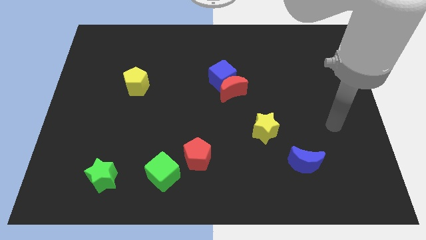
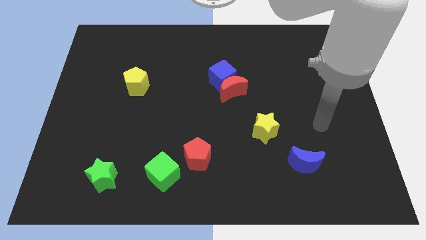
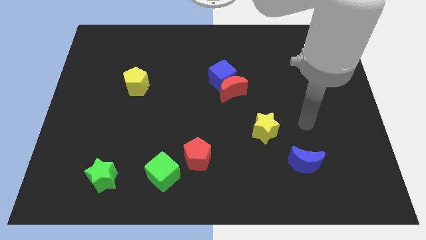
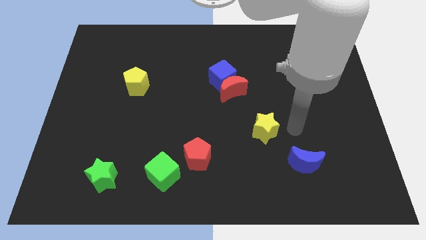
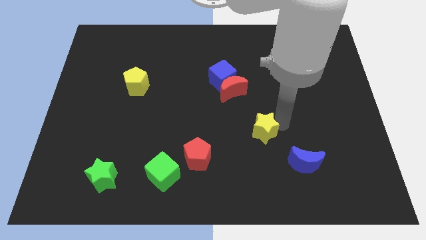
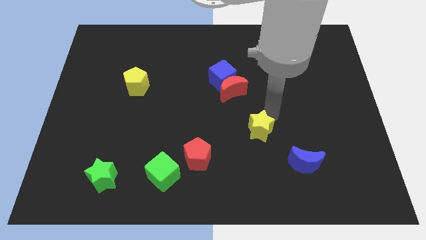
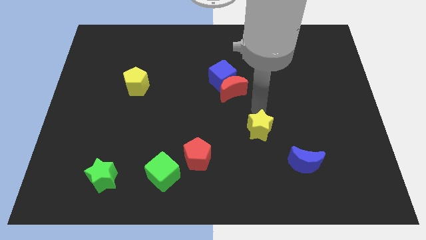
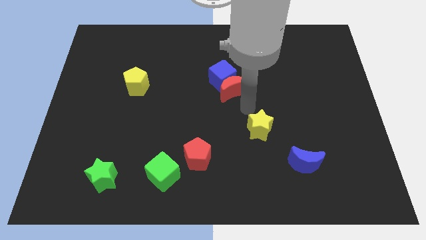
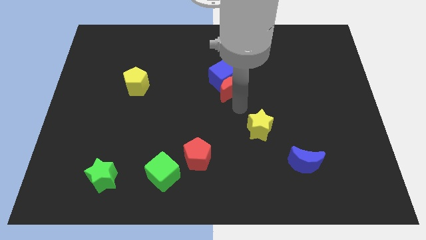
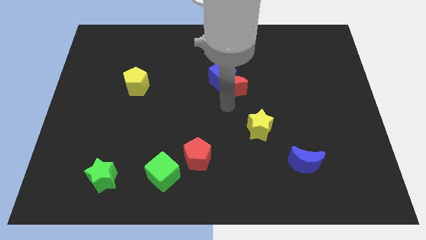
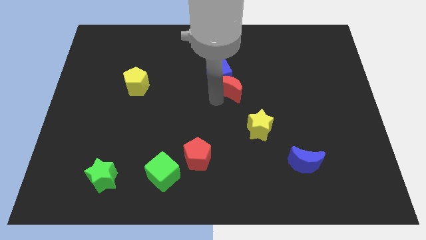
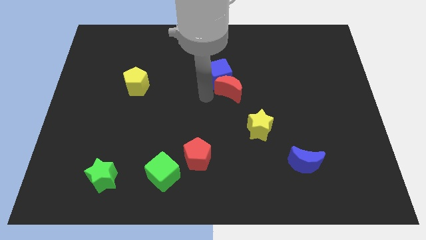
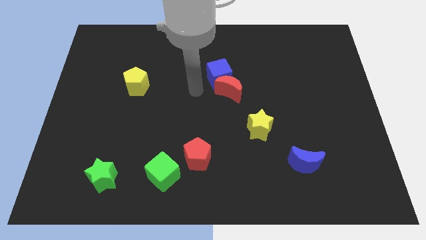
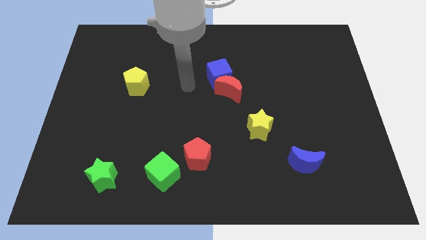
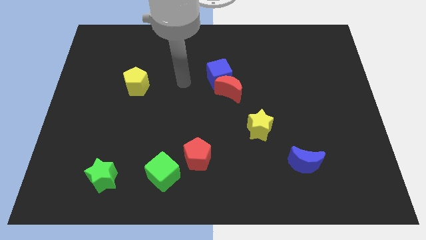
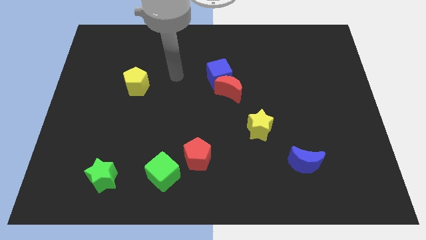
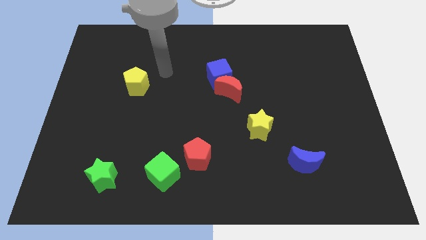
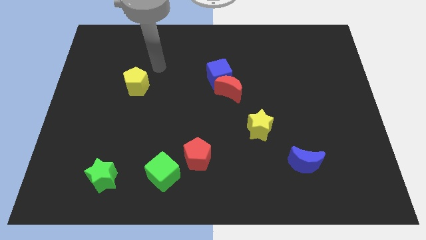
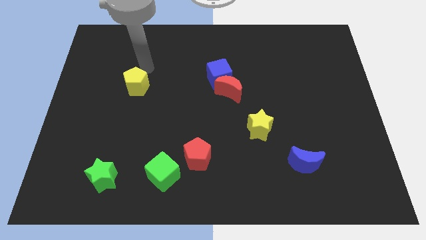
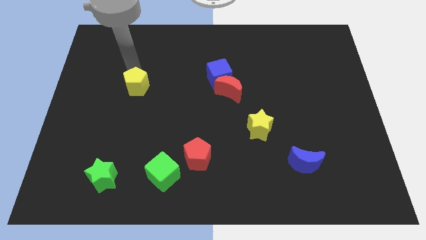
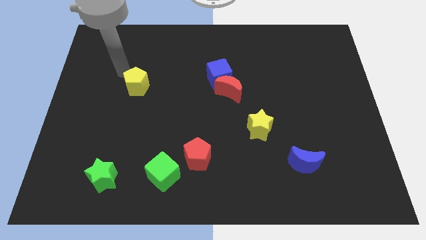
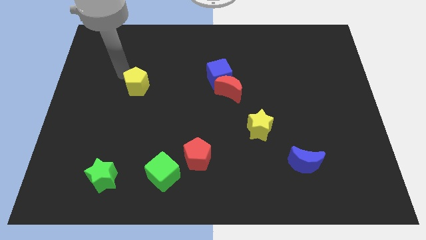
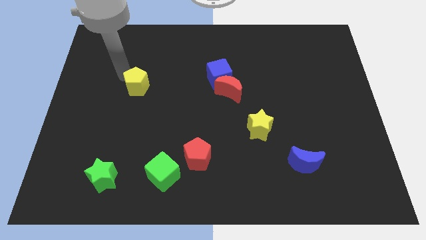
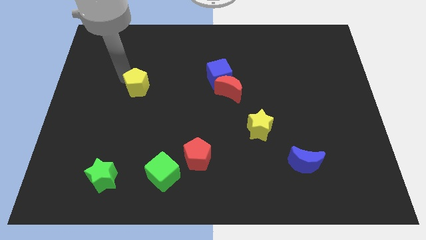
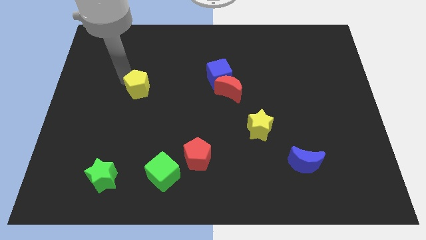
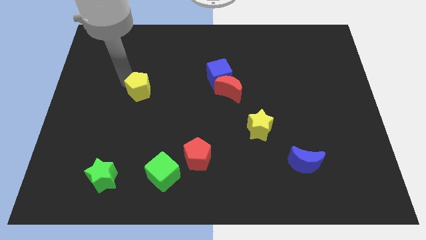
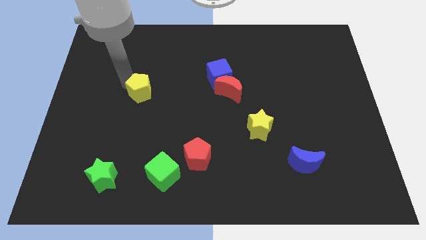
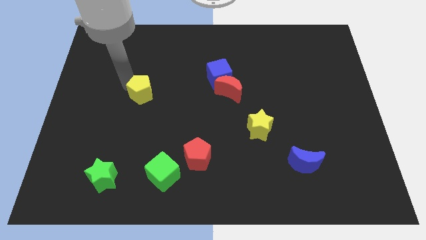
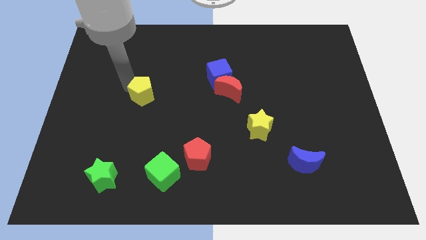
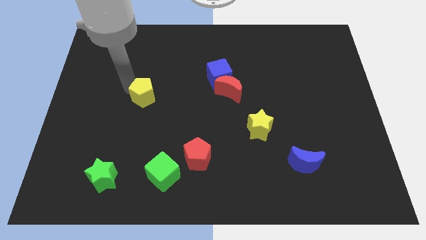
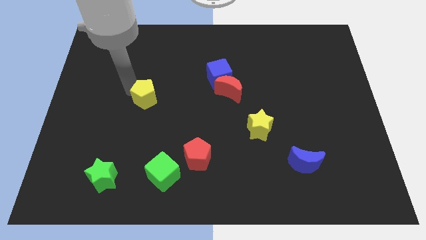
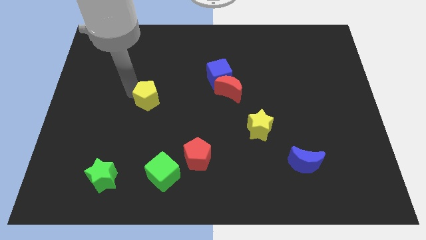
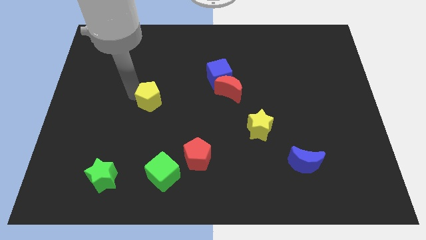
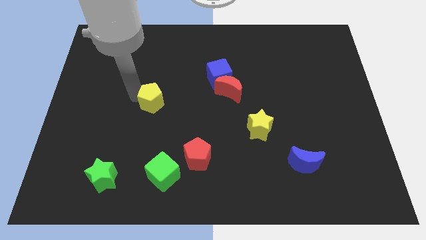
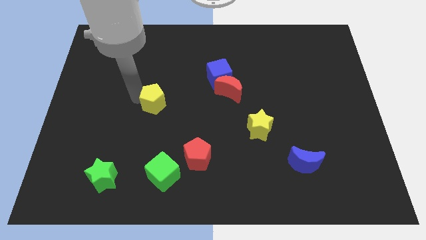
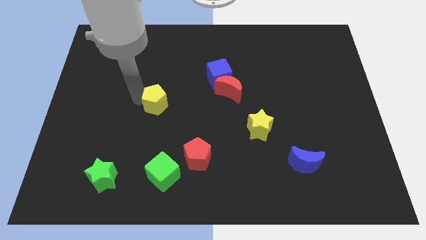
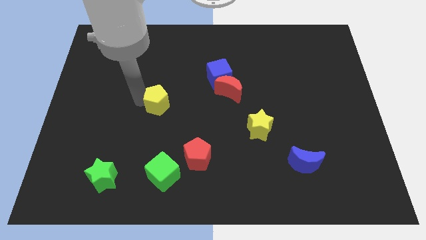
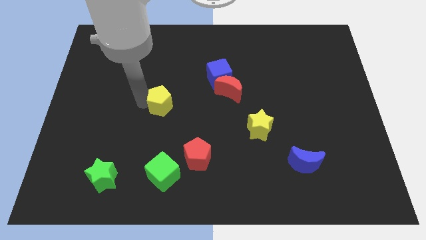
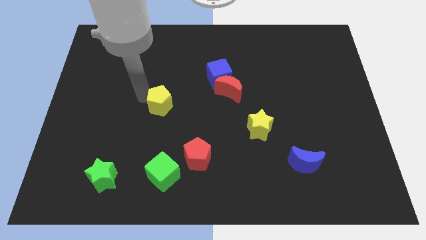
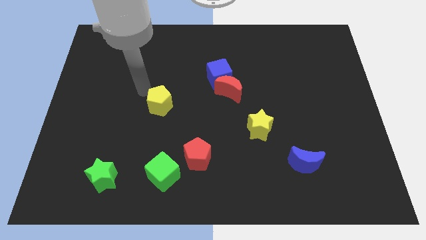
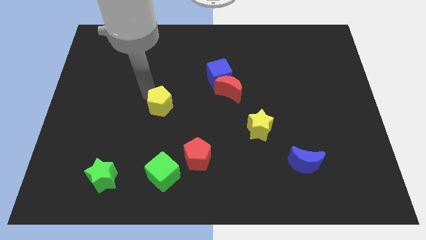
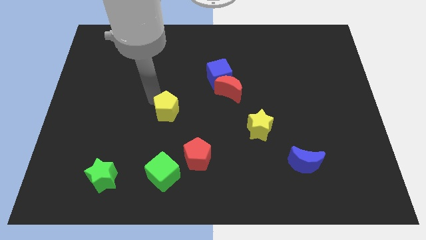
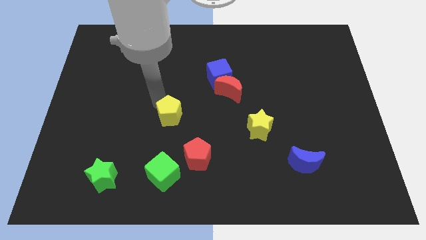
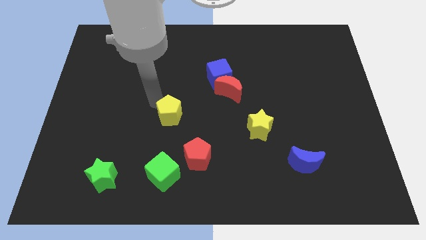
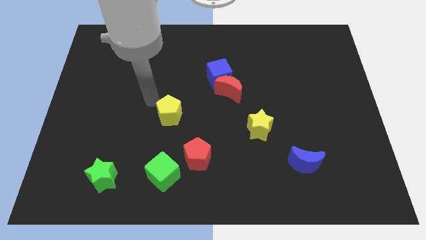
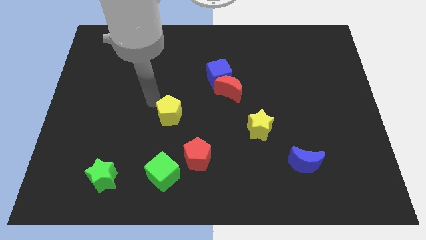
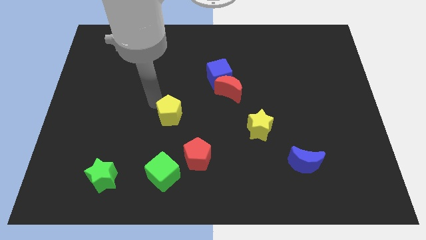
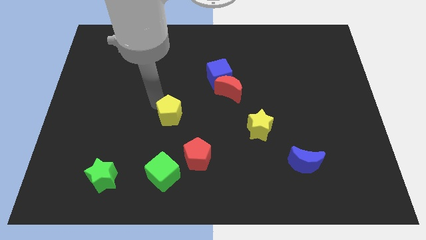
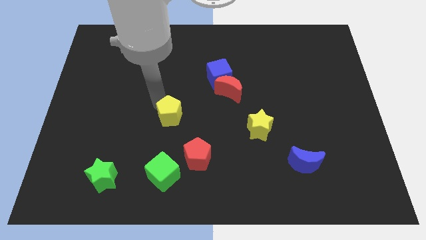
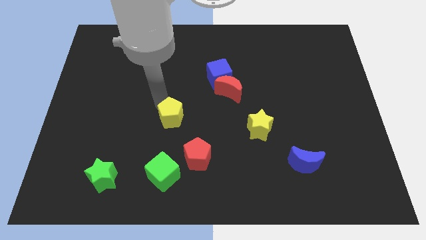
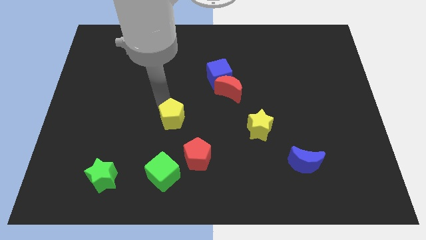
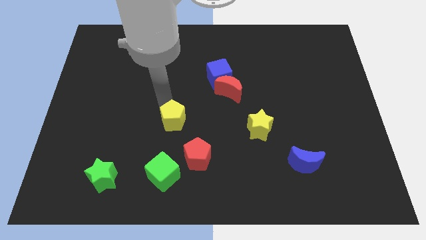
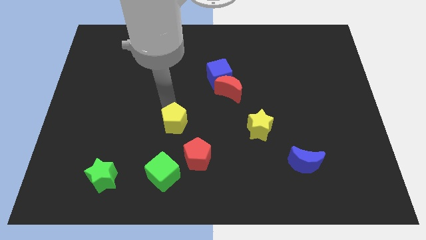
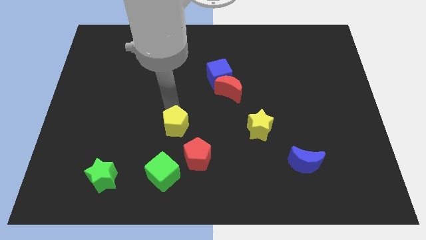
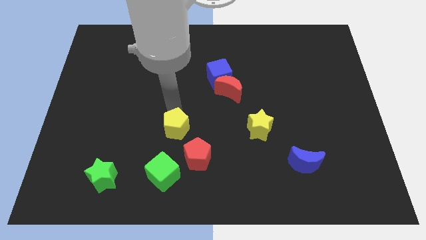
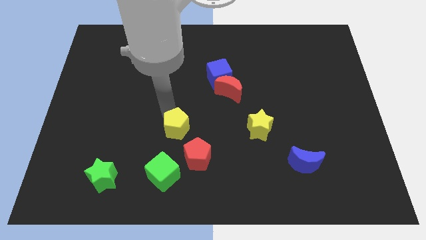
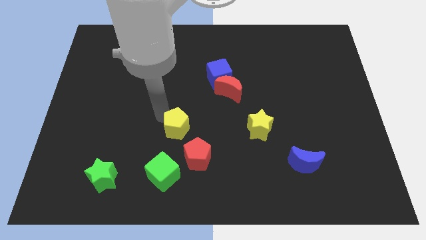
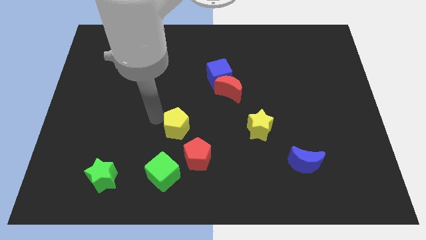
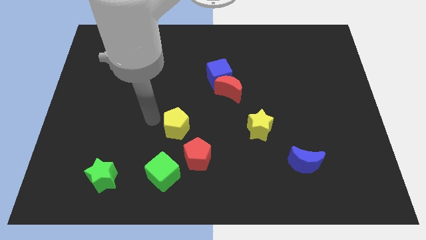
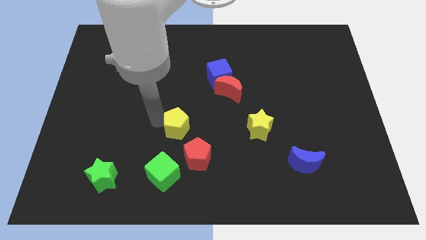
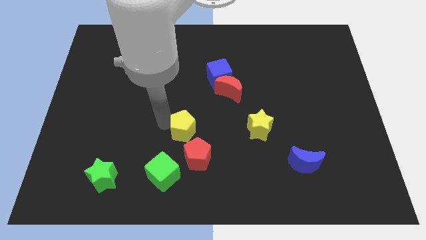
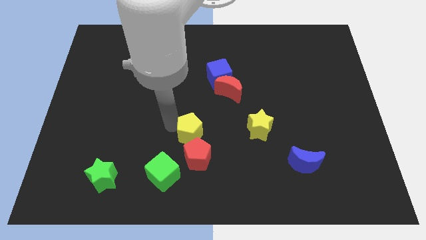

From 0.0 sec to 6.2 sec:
push the yellow pentagon down and to the right diagonally

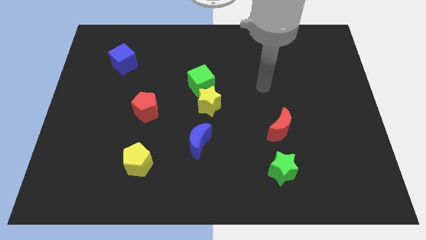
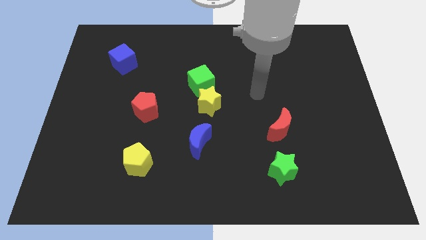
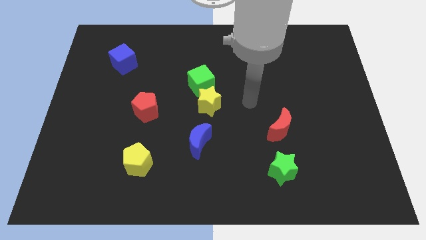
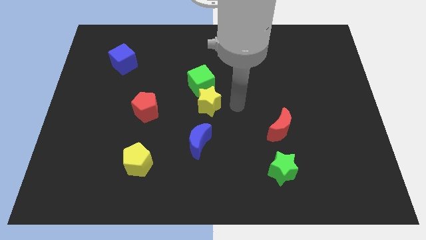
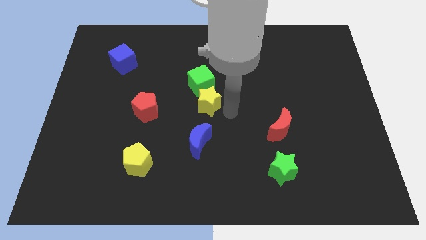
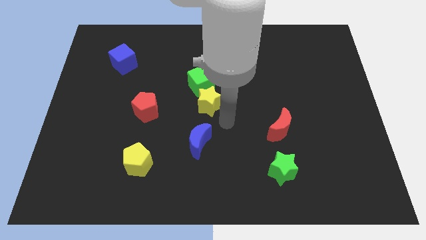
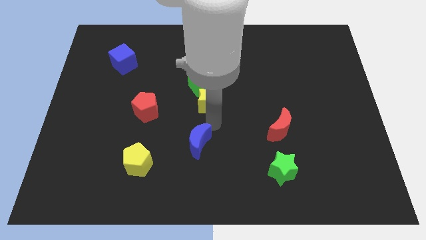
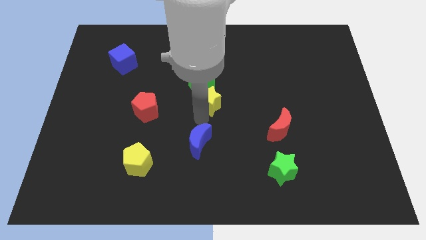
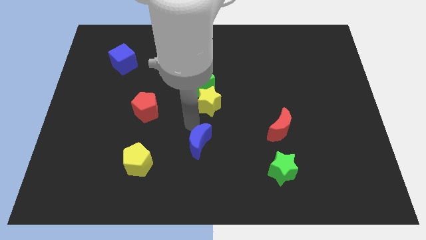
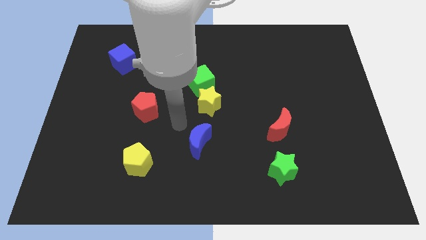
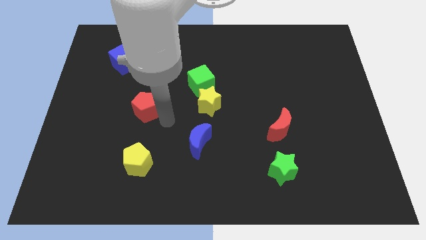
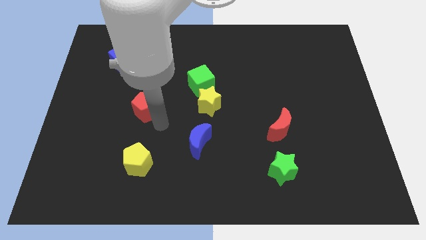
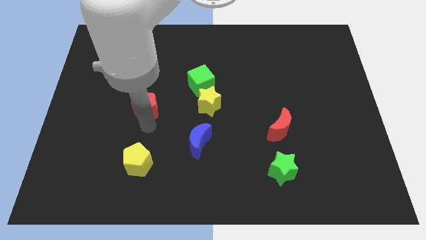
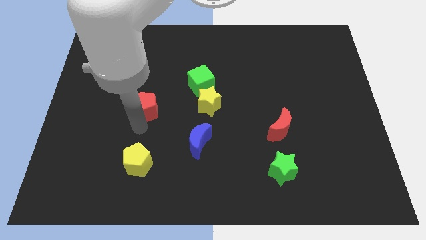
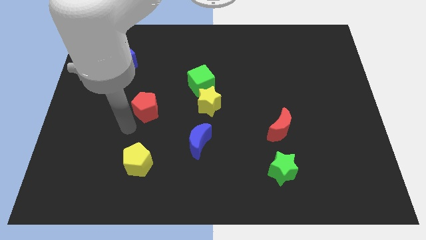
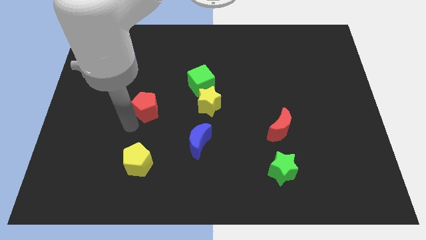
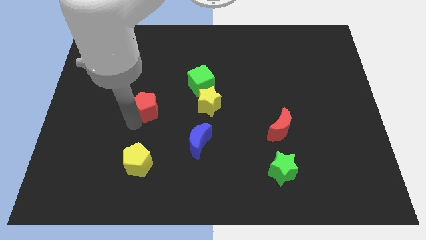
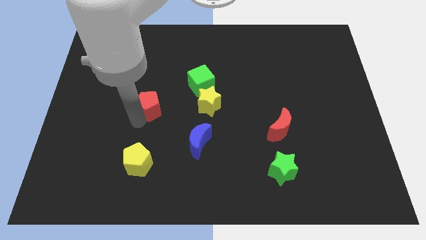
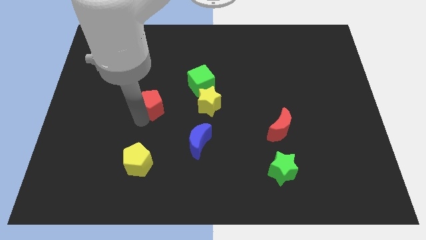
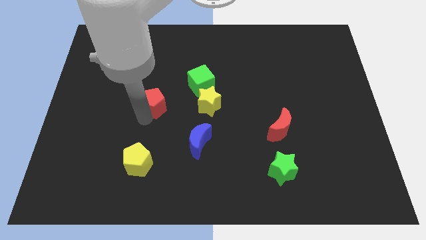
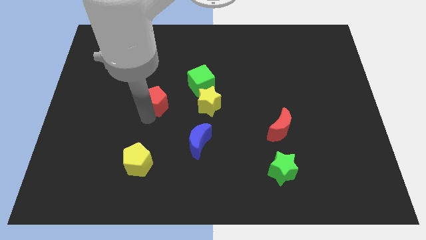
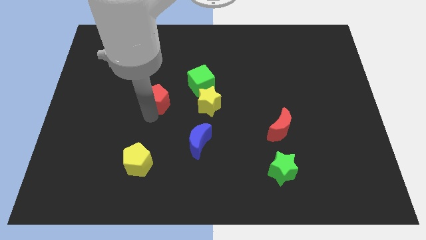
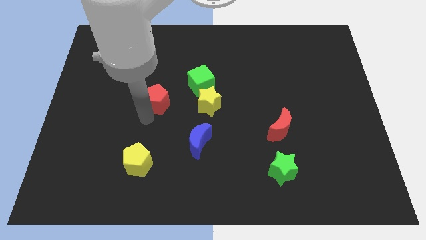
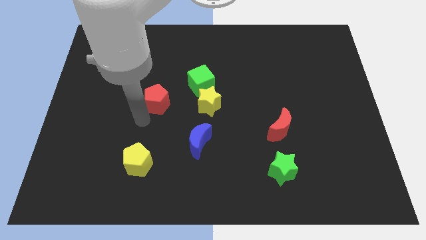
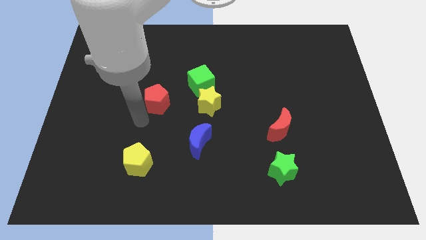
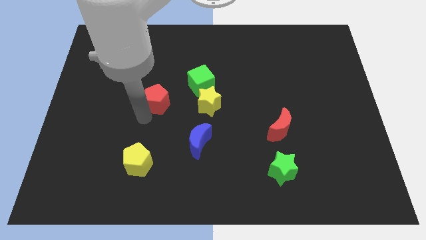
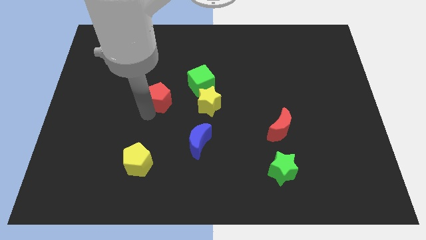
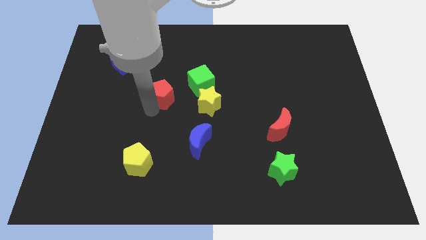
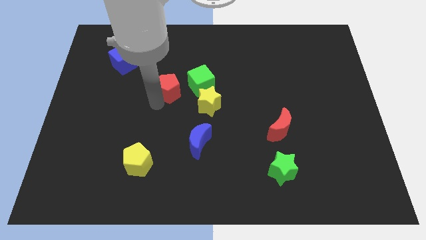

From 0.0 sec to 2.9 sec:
slide the red pentagon slightly up and then to the right
